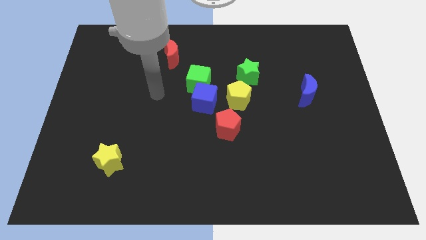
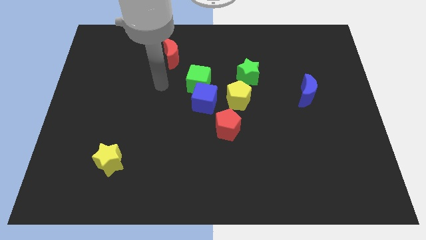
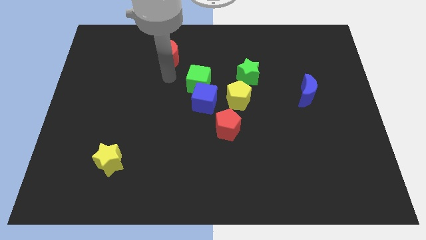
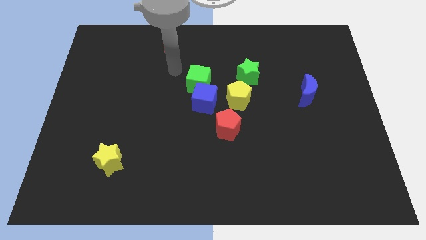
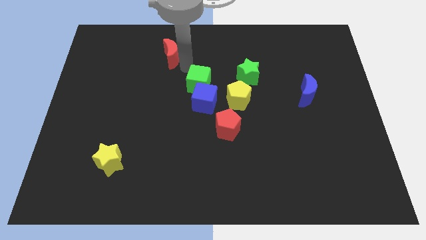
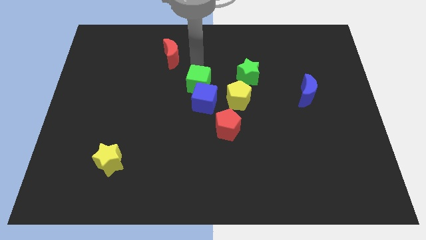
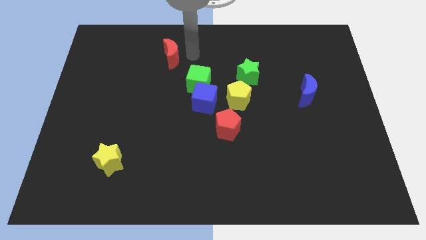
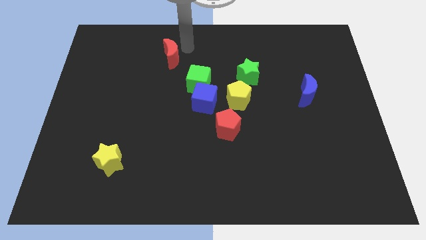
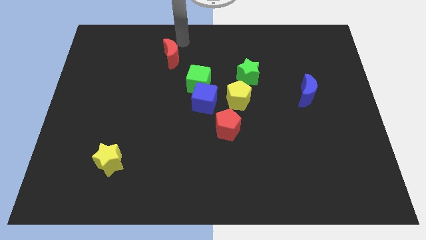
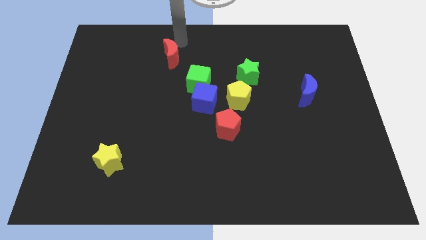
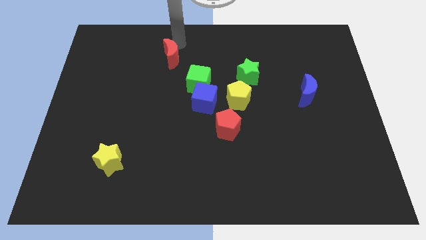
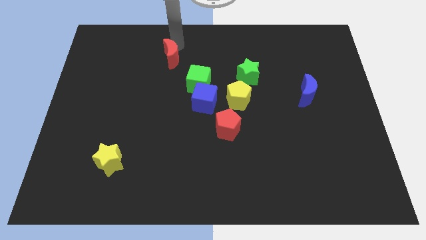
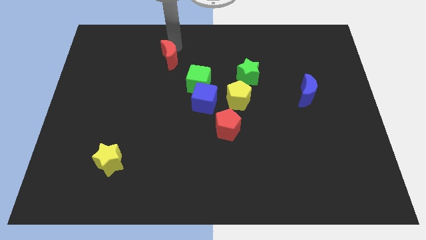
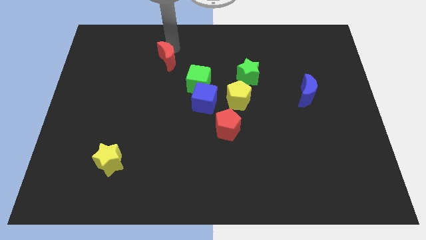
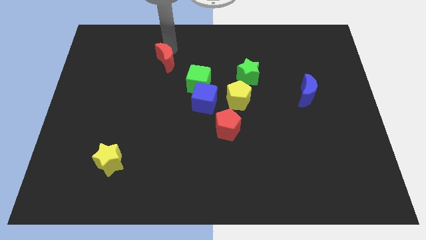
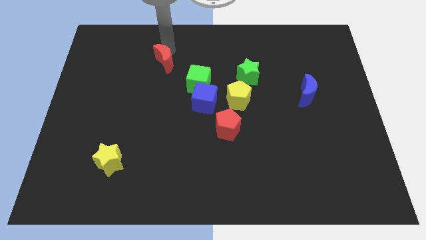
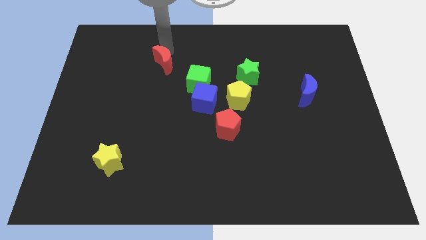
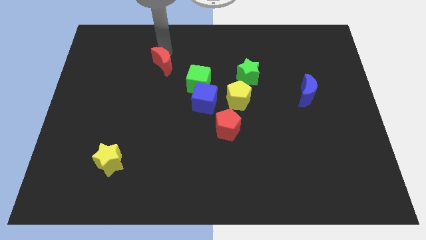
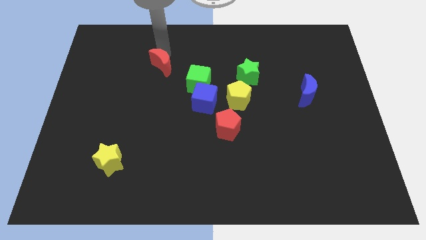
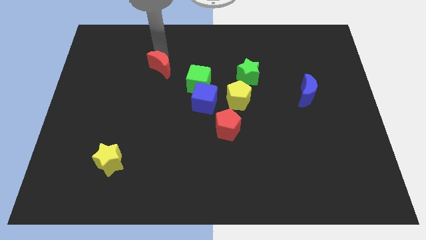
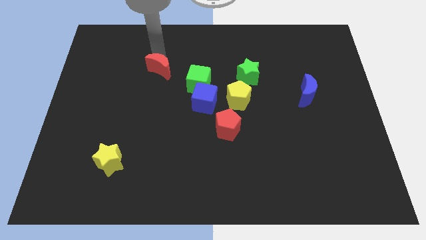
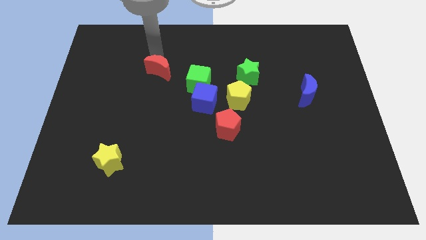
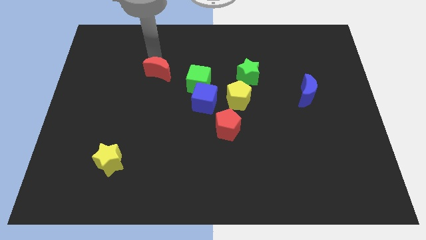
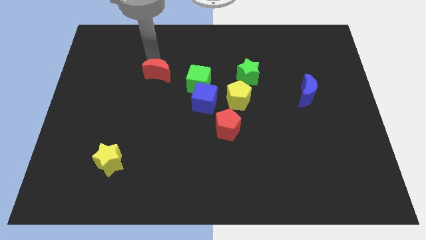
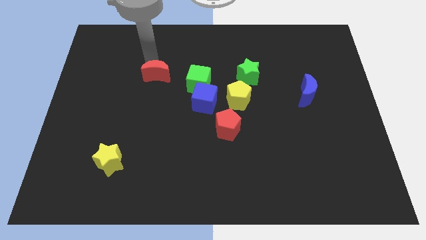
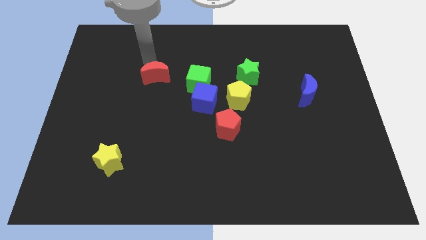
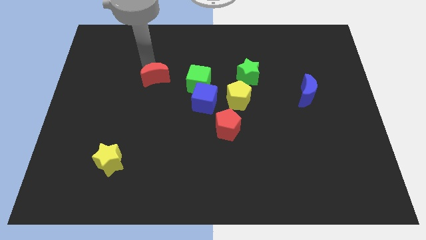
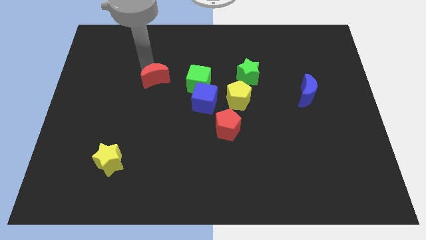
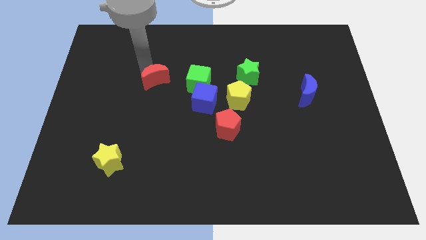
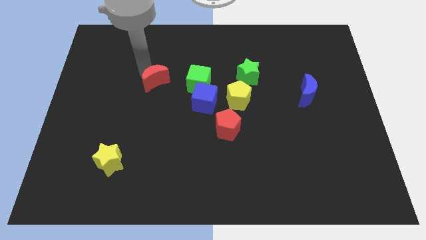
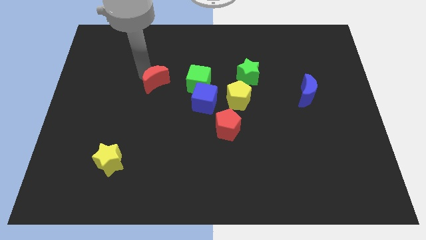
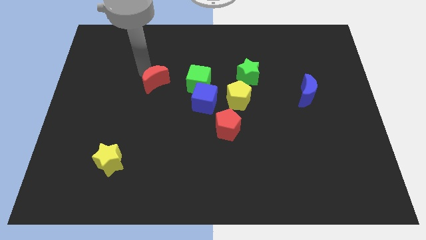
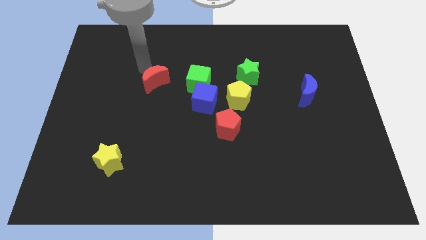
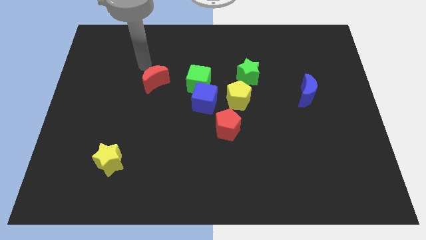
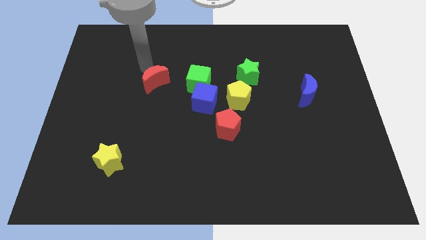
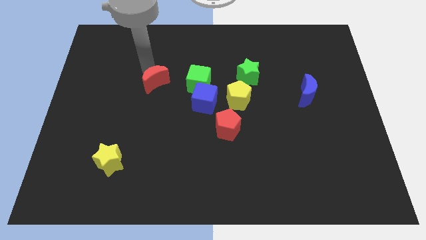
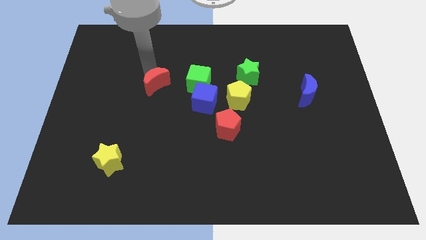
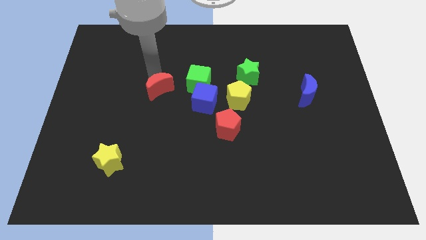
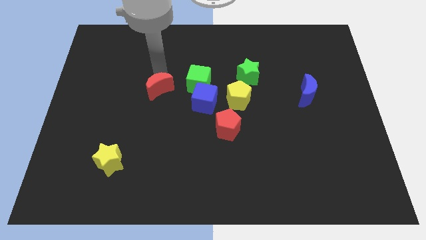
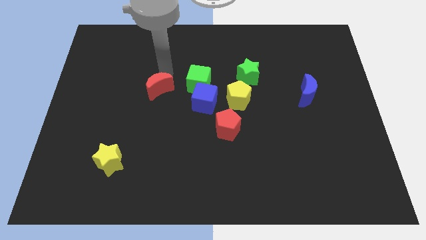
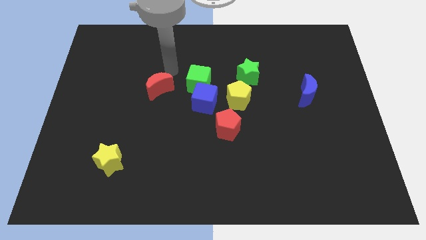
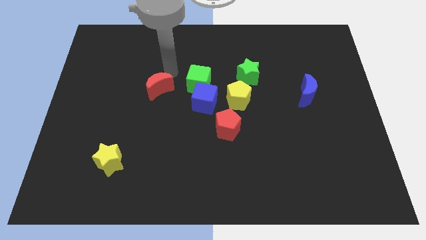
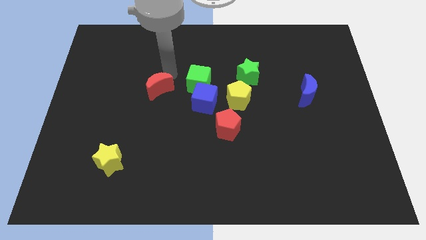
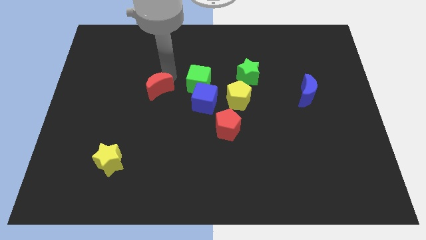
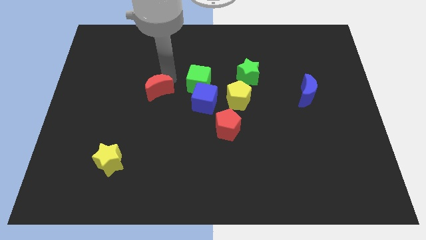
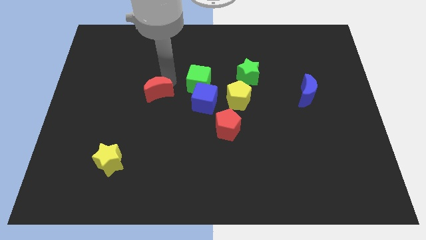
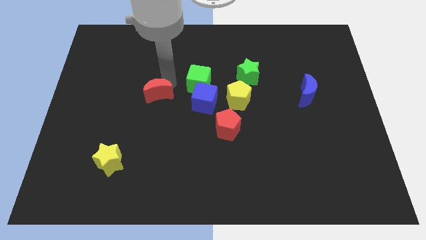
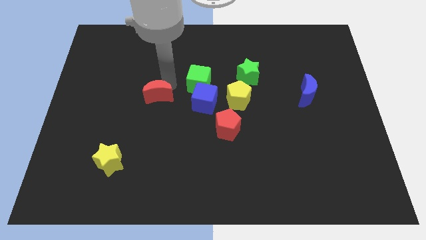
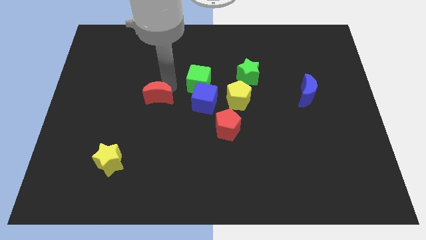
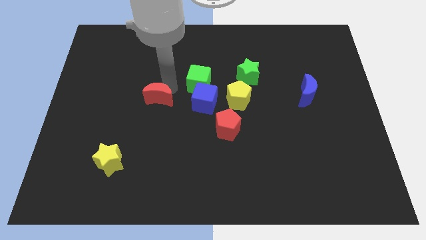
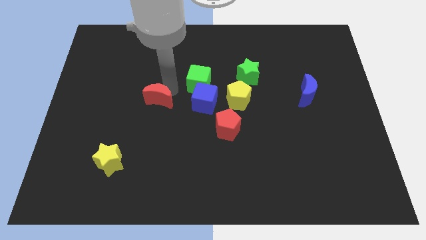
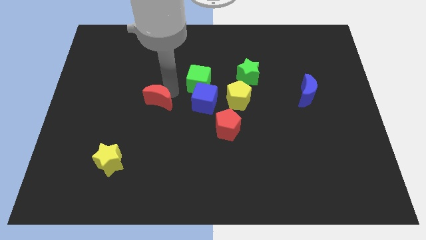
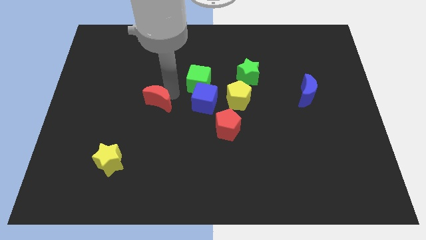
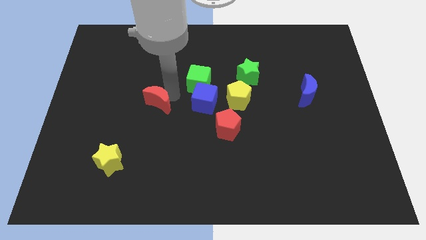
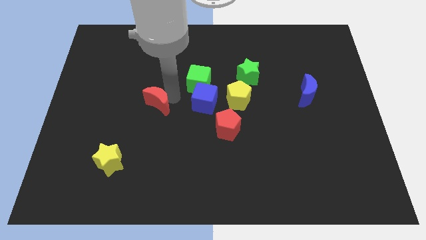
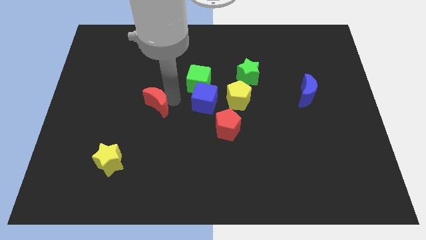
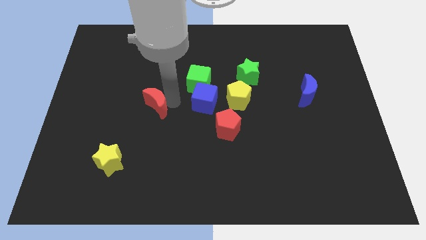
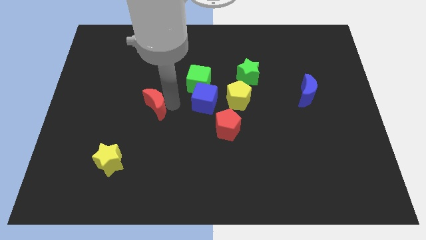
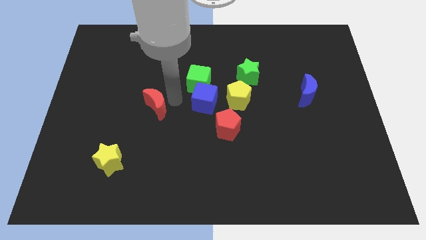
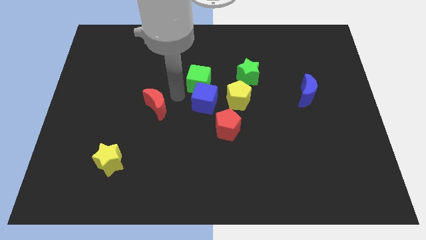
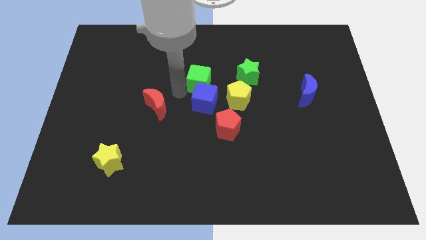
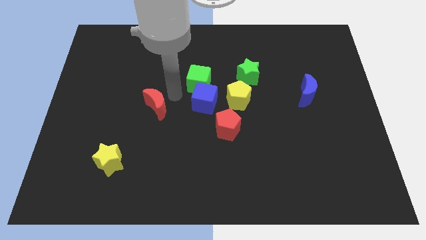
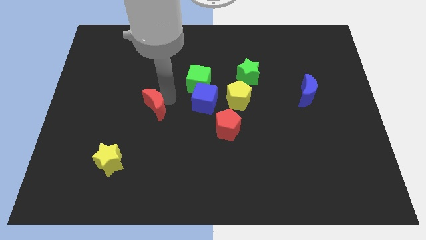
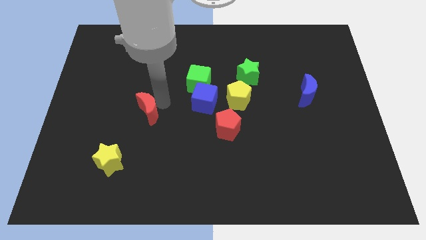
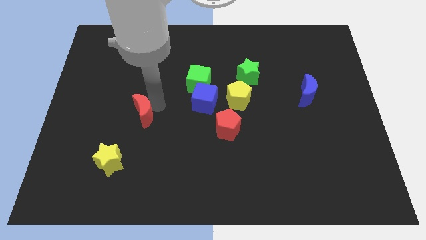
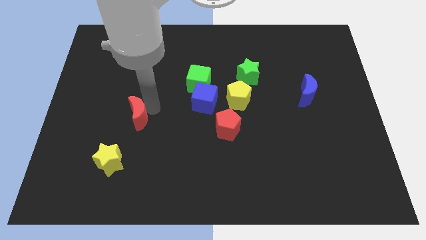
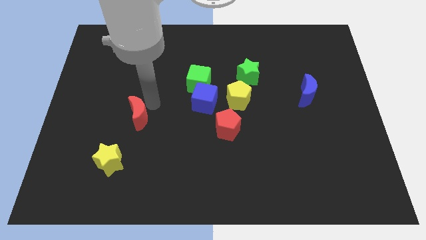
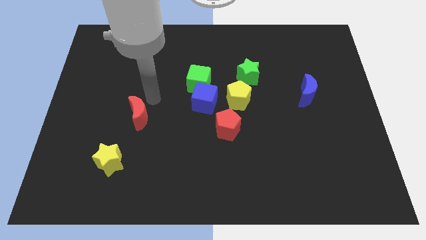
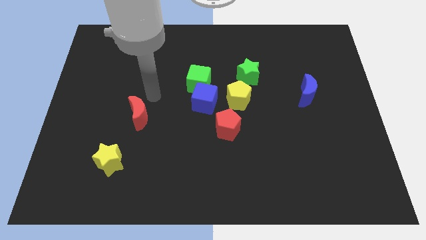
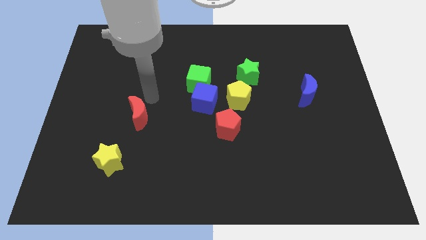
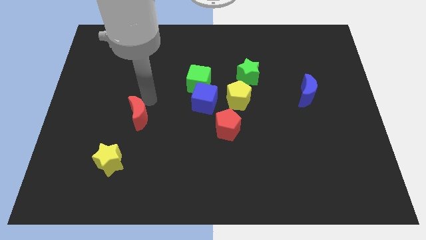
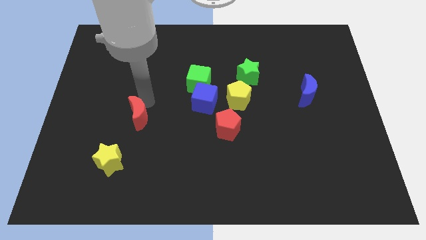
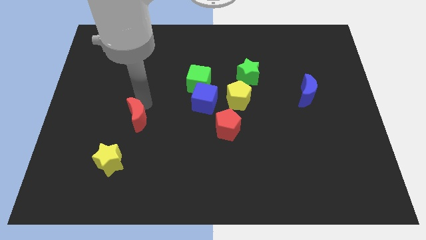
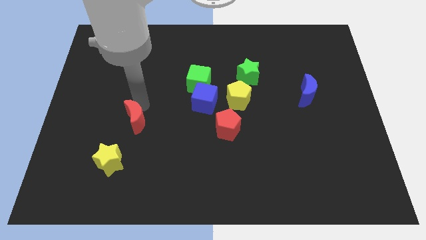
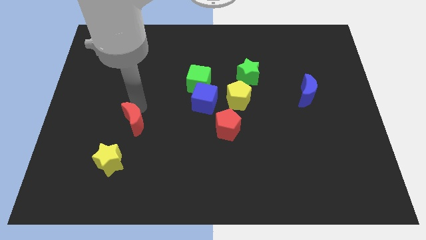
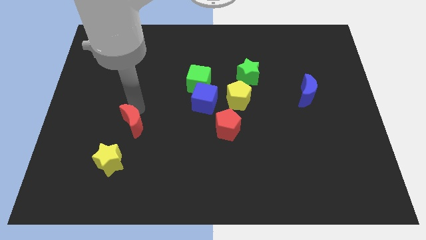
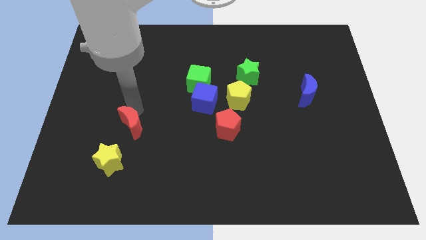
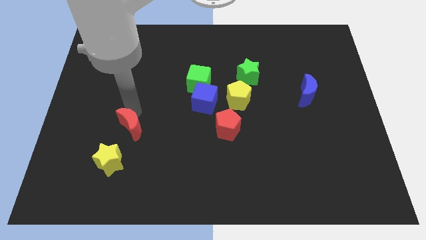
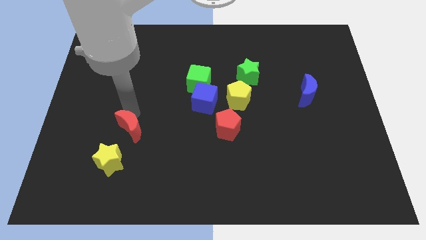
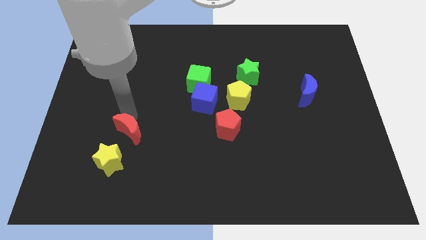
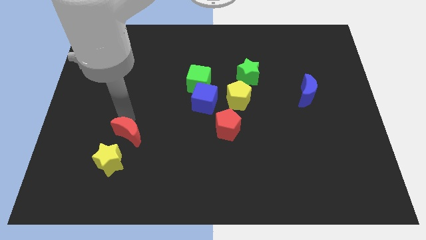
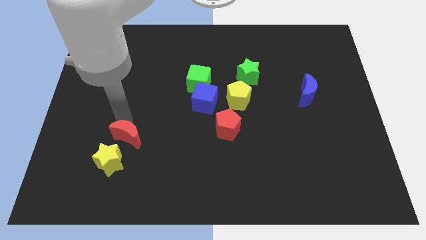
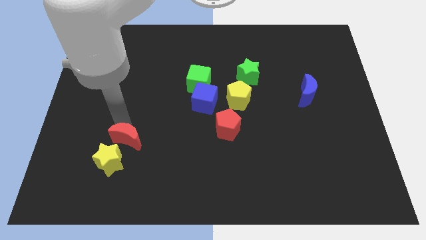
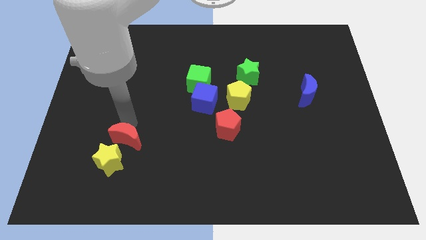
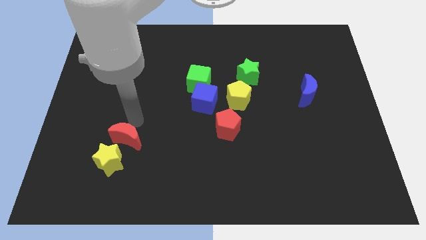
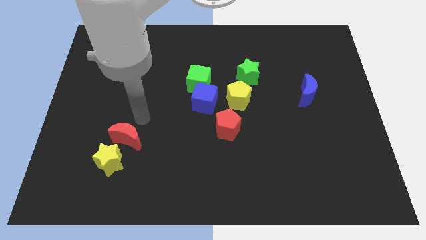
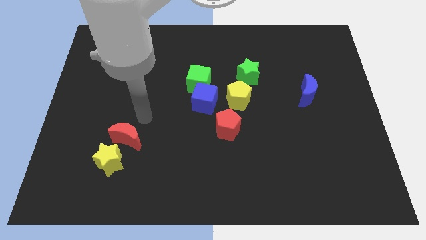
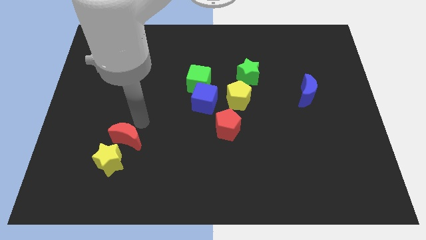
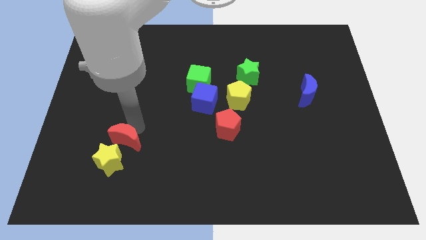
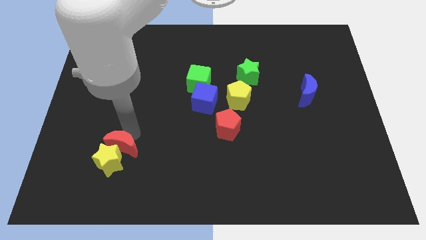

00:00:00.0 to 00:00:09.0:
slide the red moon close to the yellow star
